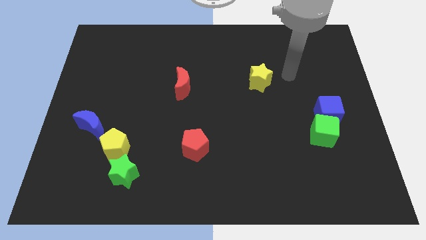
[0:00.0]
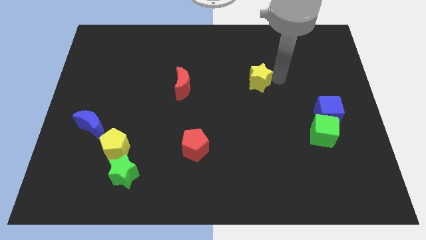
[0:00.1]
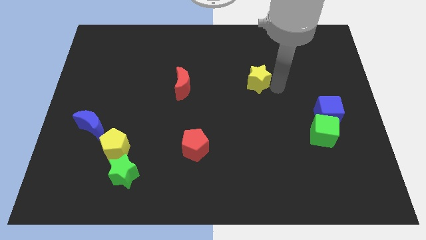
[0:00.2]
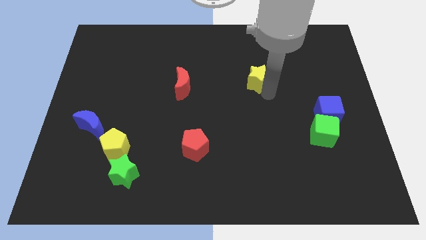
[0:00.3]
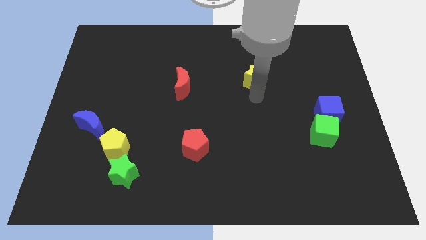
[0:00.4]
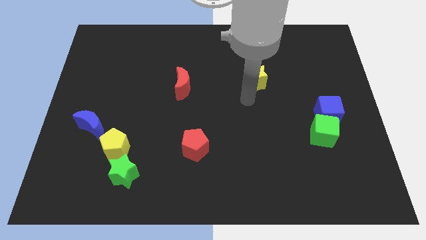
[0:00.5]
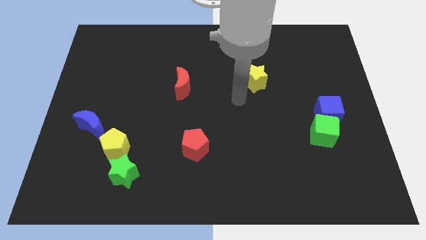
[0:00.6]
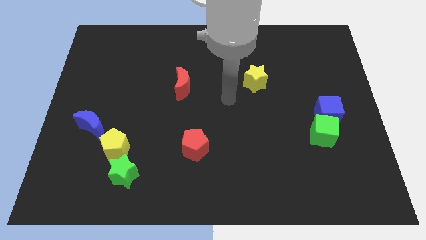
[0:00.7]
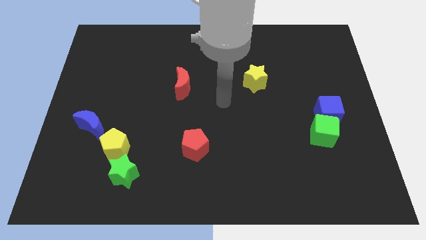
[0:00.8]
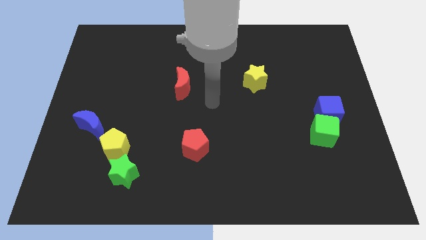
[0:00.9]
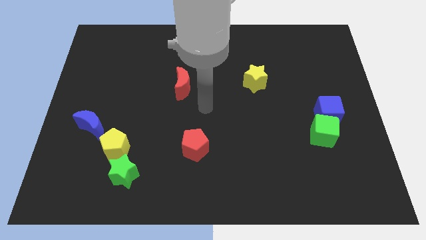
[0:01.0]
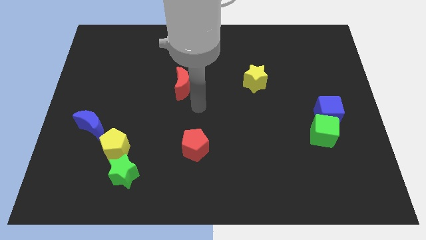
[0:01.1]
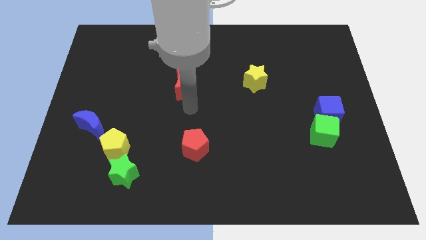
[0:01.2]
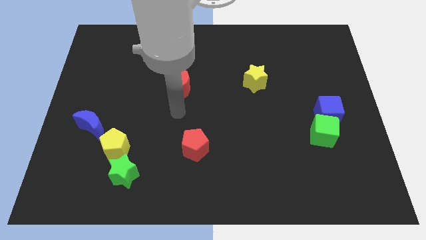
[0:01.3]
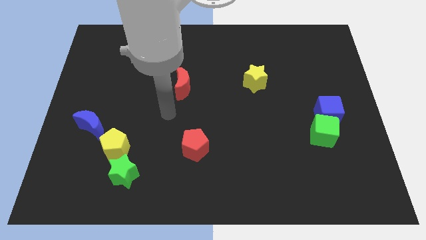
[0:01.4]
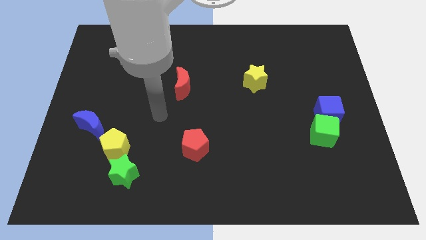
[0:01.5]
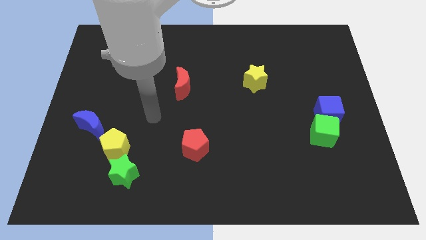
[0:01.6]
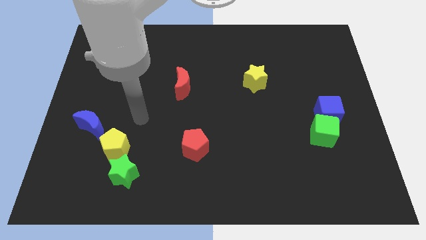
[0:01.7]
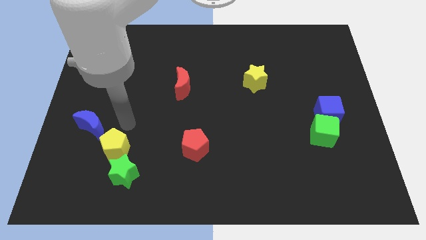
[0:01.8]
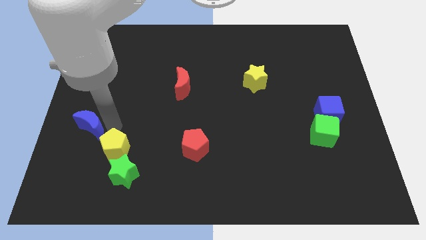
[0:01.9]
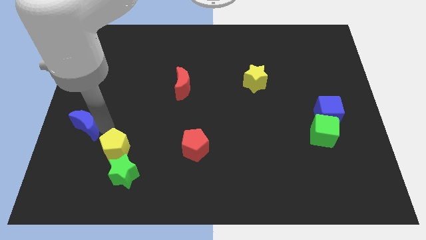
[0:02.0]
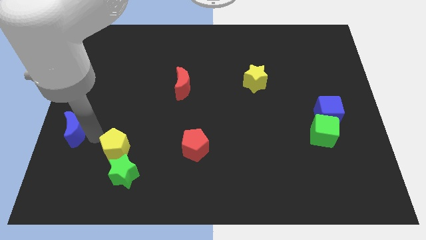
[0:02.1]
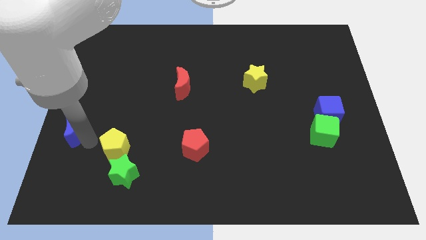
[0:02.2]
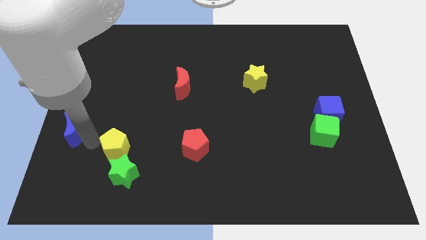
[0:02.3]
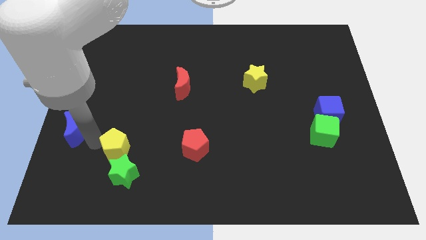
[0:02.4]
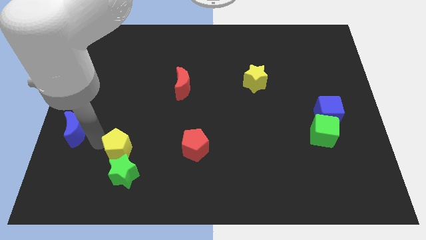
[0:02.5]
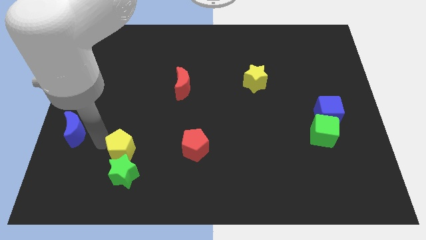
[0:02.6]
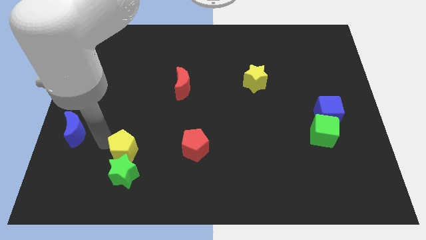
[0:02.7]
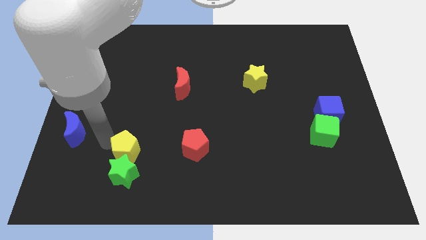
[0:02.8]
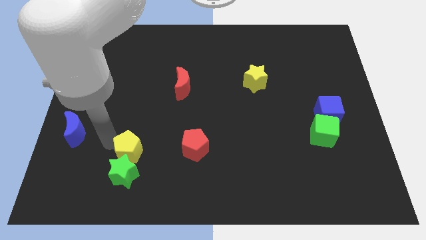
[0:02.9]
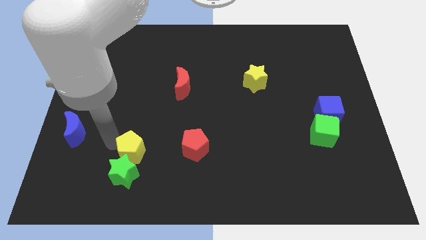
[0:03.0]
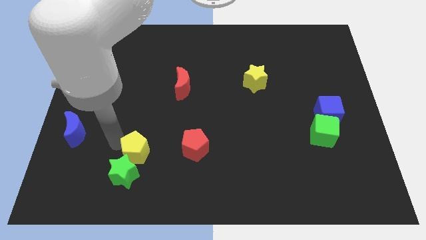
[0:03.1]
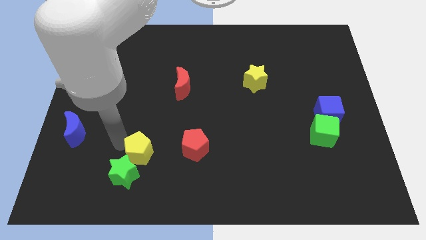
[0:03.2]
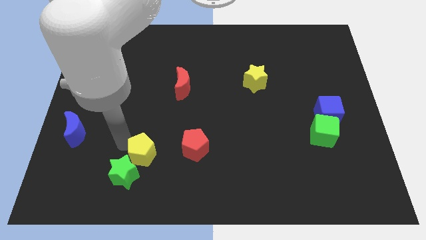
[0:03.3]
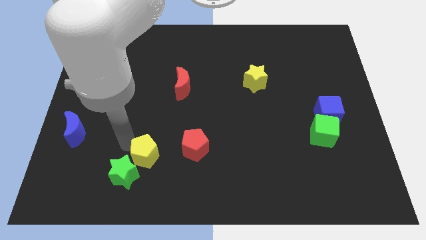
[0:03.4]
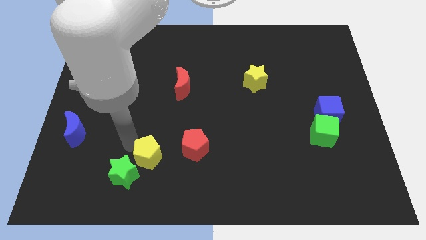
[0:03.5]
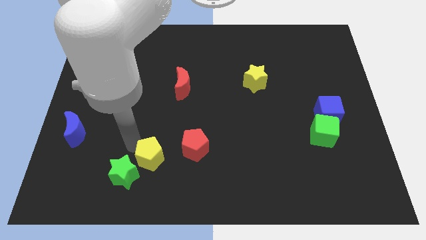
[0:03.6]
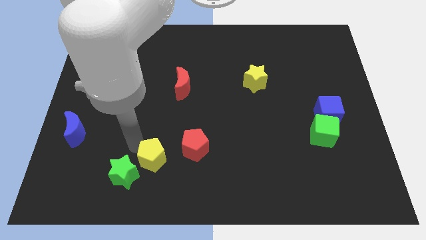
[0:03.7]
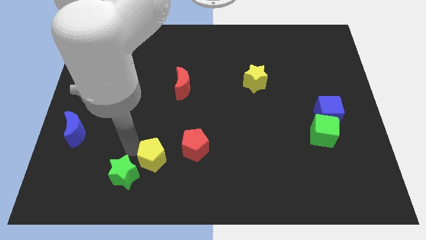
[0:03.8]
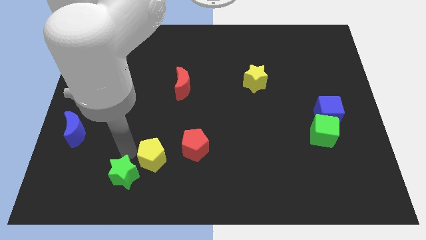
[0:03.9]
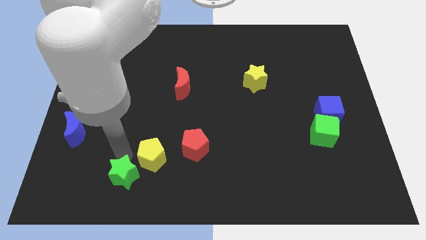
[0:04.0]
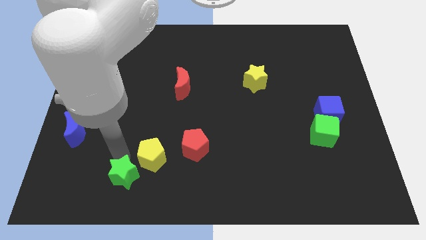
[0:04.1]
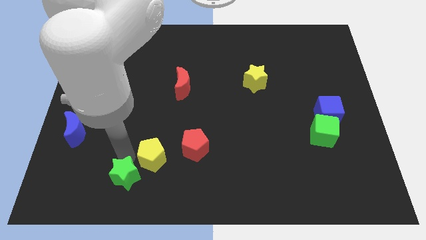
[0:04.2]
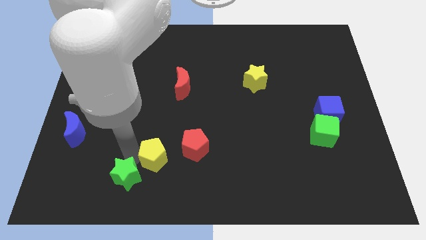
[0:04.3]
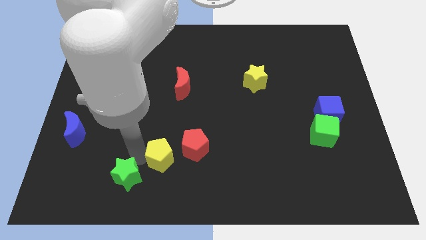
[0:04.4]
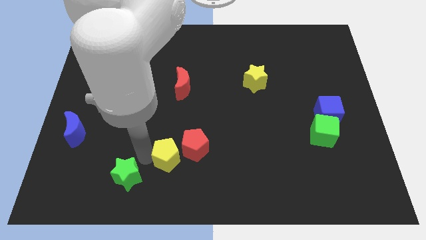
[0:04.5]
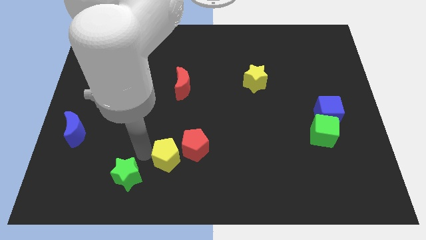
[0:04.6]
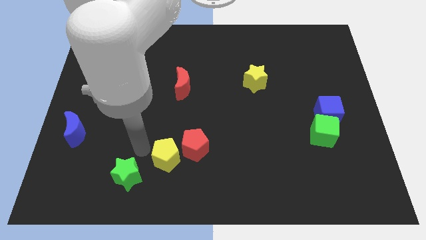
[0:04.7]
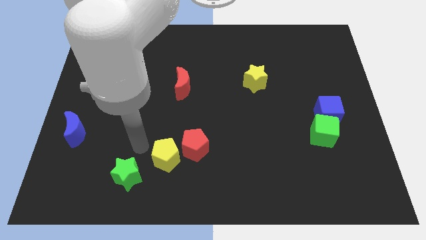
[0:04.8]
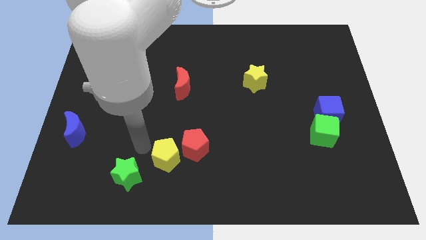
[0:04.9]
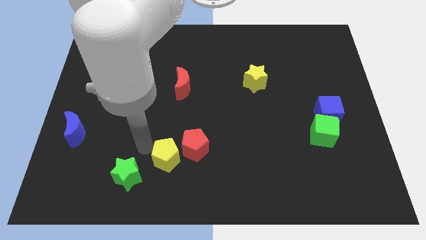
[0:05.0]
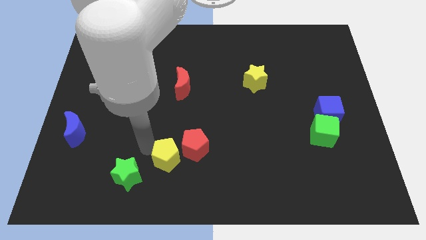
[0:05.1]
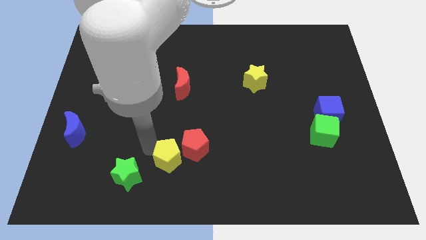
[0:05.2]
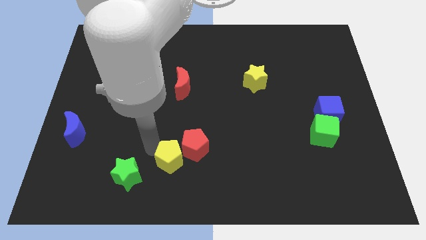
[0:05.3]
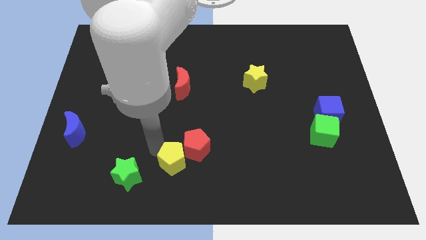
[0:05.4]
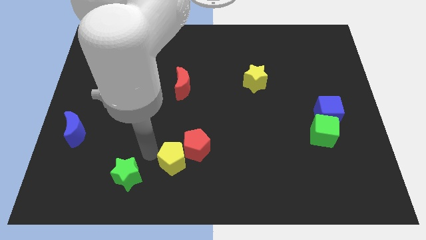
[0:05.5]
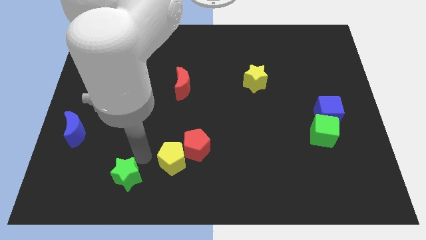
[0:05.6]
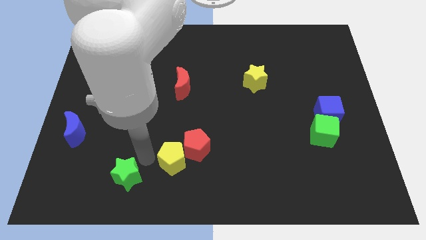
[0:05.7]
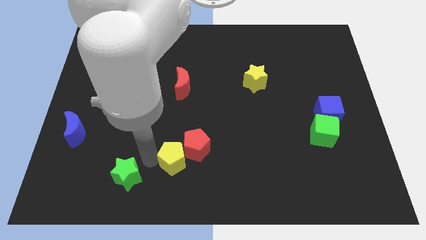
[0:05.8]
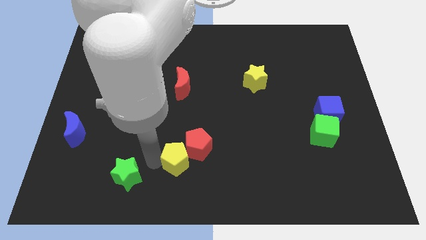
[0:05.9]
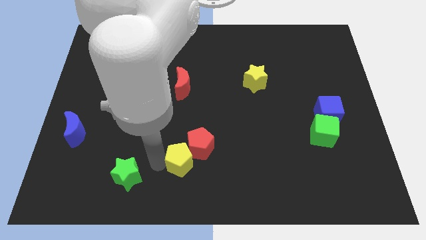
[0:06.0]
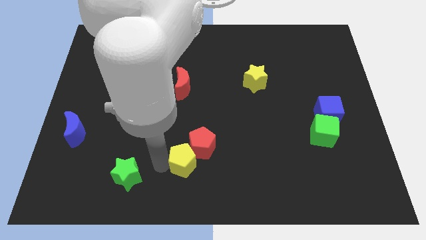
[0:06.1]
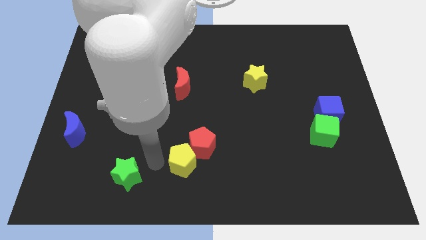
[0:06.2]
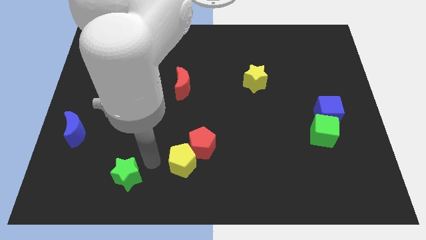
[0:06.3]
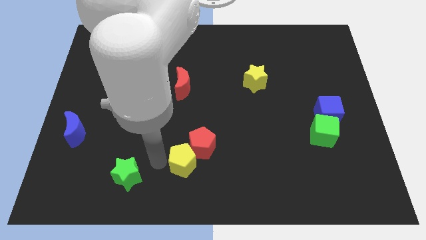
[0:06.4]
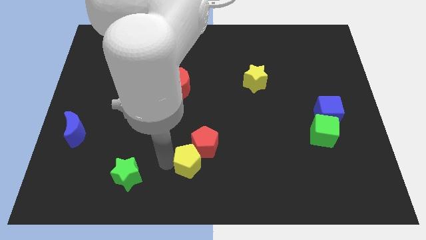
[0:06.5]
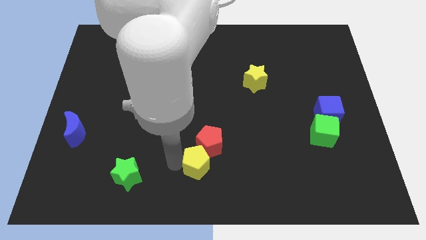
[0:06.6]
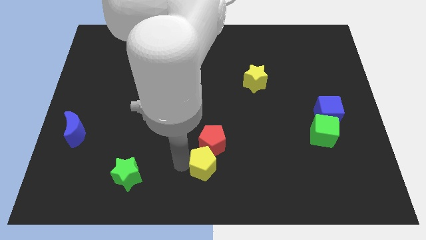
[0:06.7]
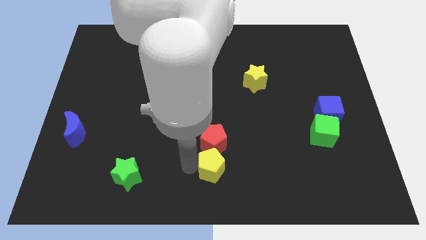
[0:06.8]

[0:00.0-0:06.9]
slide the yellow pentagon right

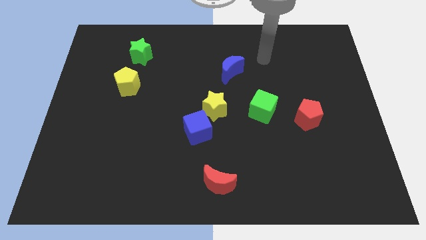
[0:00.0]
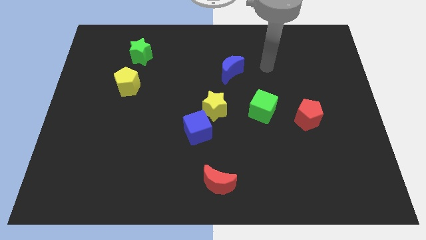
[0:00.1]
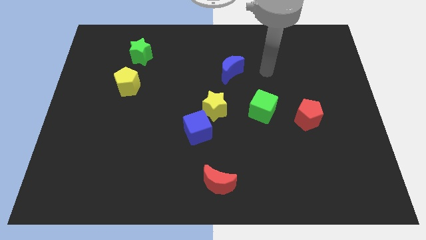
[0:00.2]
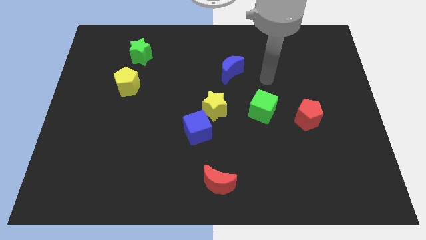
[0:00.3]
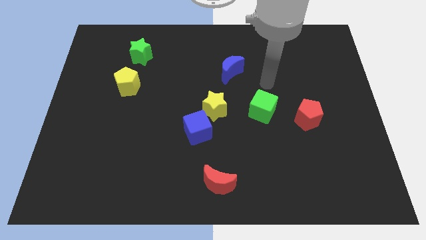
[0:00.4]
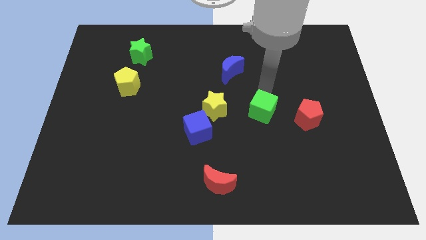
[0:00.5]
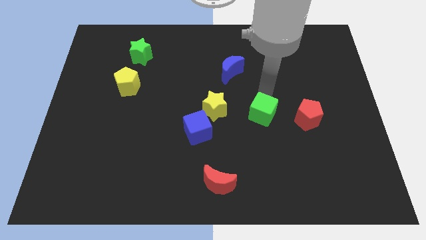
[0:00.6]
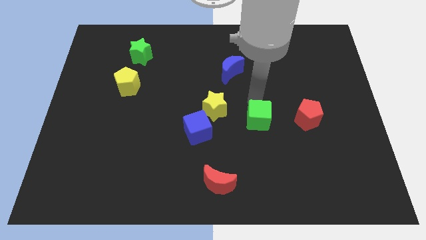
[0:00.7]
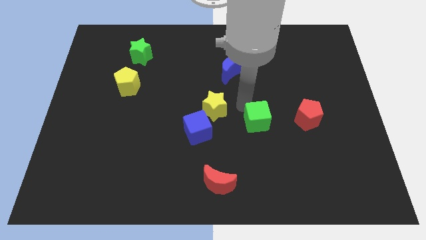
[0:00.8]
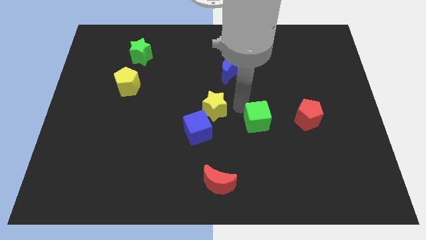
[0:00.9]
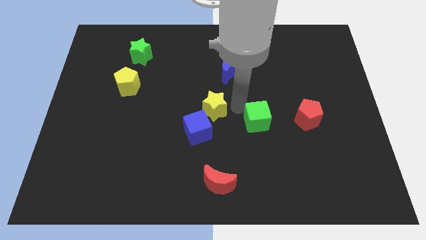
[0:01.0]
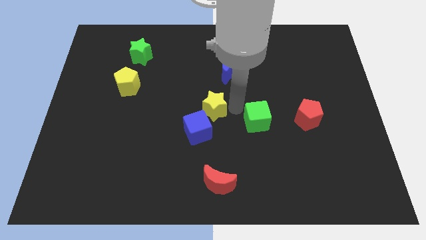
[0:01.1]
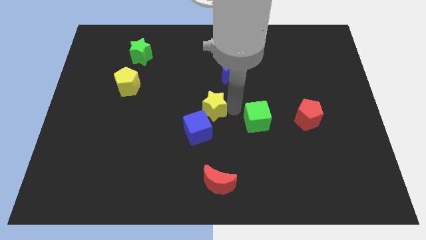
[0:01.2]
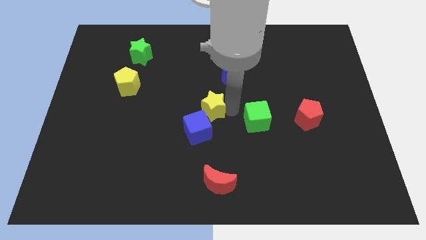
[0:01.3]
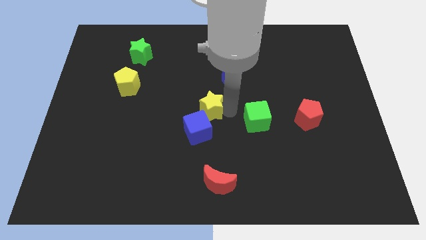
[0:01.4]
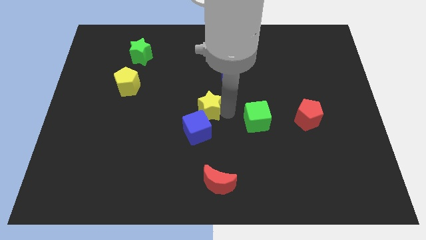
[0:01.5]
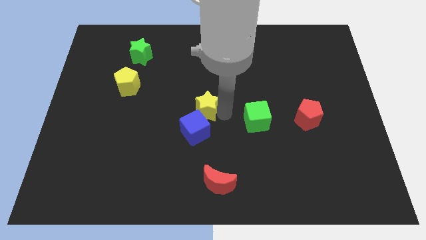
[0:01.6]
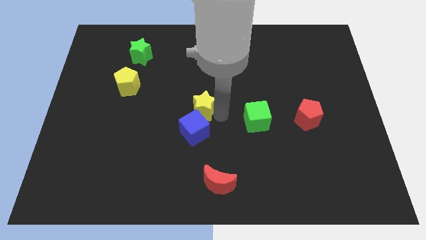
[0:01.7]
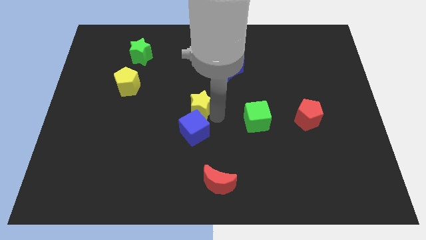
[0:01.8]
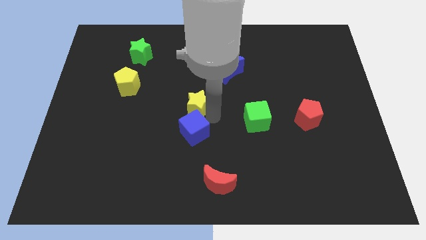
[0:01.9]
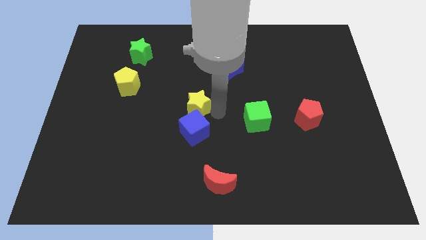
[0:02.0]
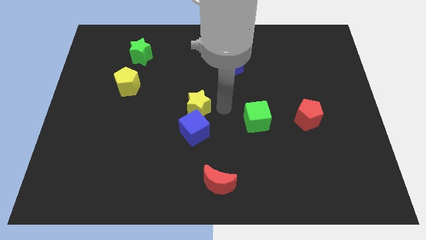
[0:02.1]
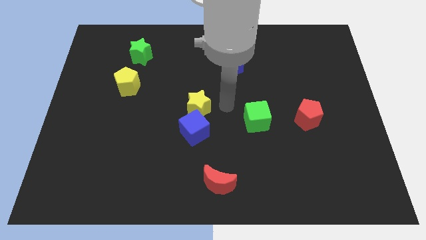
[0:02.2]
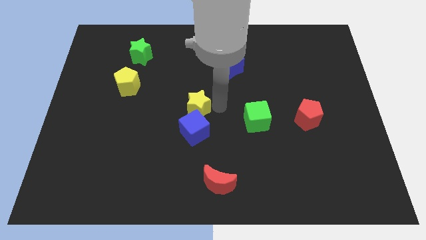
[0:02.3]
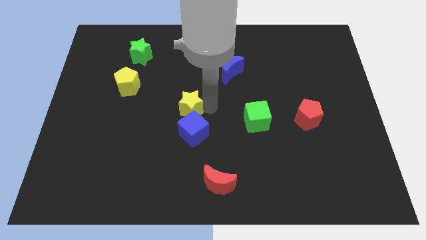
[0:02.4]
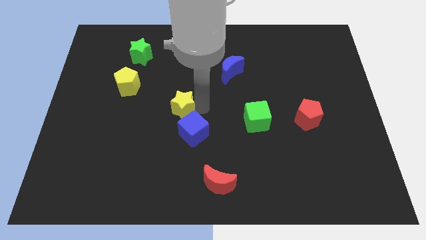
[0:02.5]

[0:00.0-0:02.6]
push the yellow star a bit left
